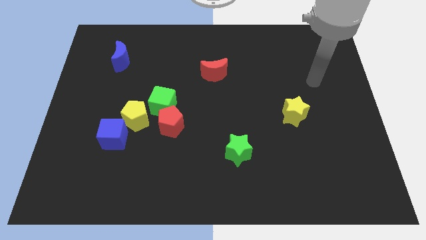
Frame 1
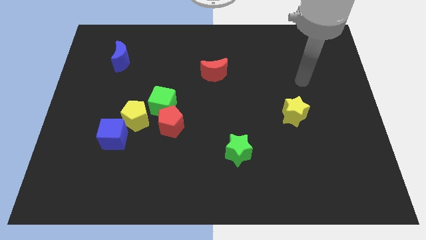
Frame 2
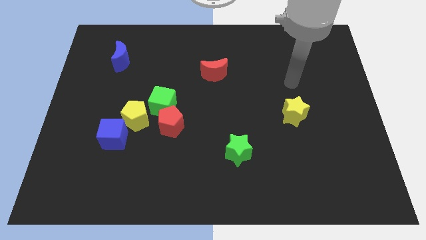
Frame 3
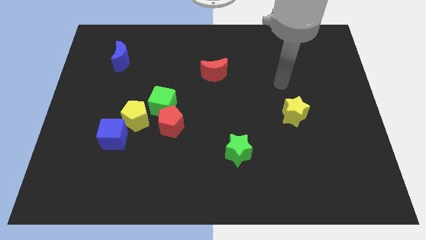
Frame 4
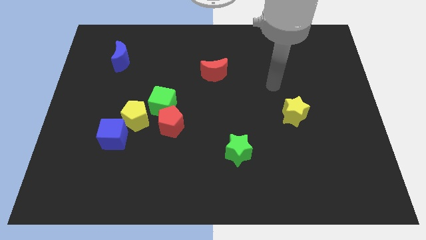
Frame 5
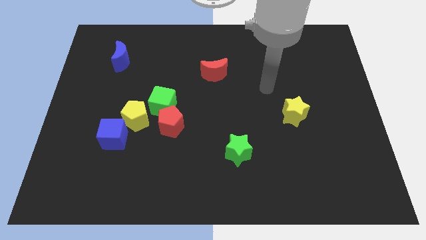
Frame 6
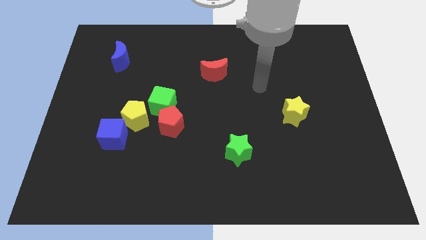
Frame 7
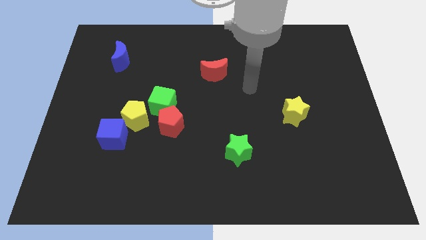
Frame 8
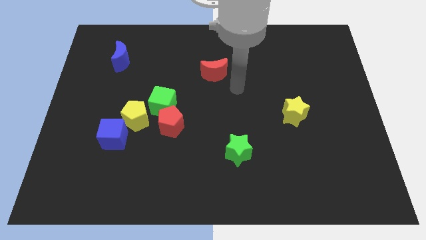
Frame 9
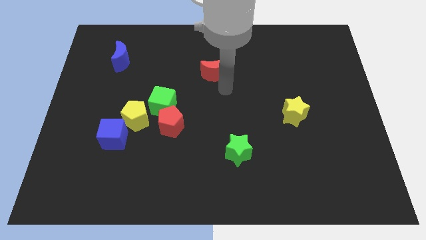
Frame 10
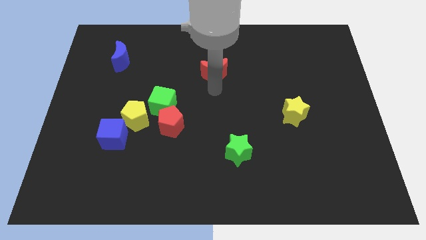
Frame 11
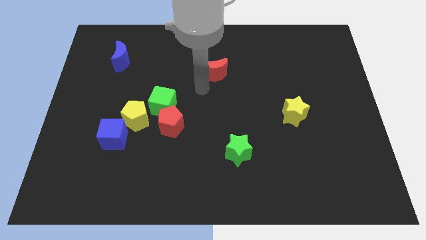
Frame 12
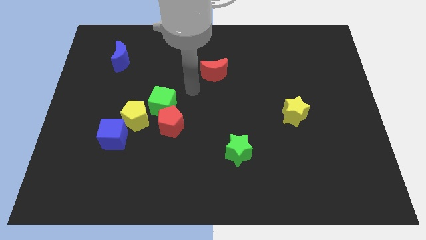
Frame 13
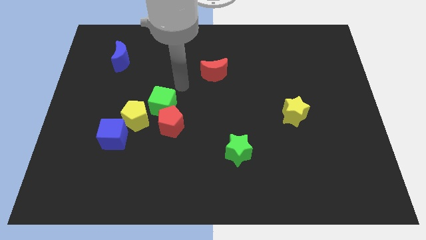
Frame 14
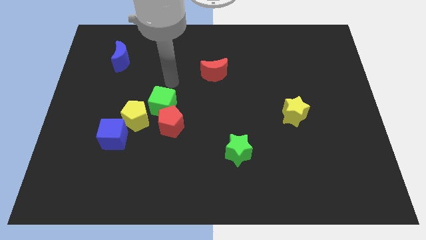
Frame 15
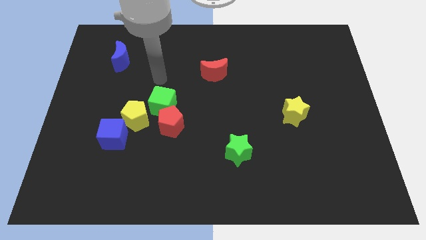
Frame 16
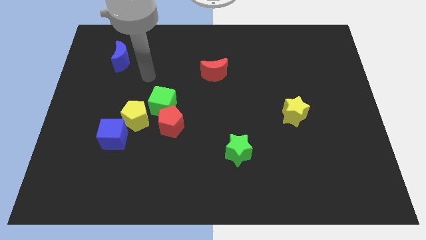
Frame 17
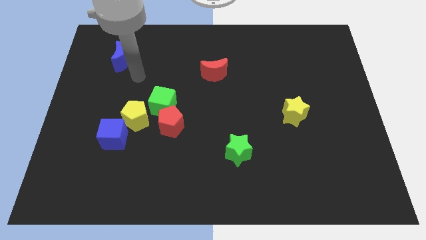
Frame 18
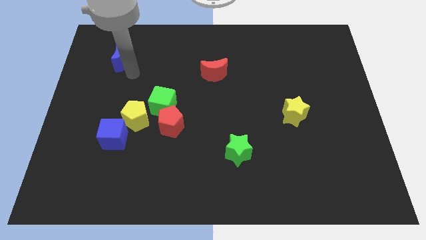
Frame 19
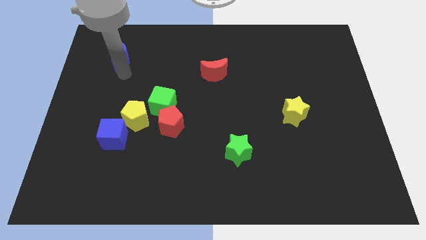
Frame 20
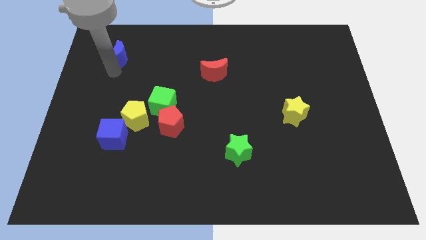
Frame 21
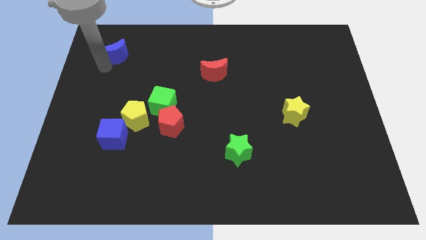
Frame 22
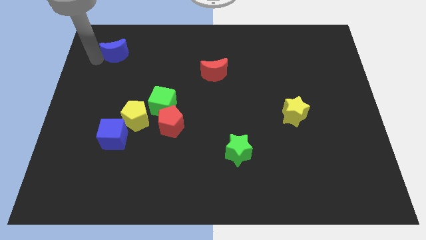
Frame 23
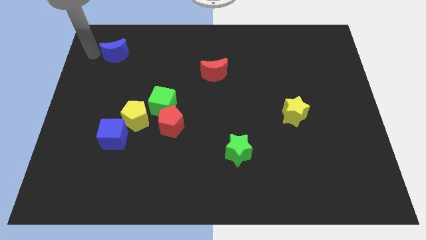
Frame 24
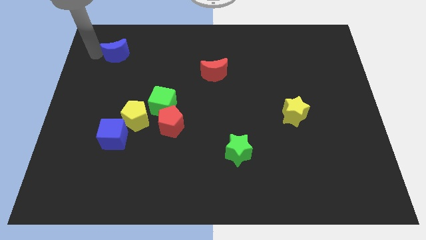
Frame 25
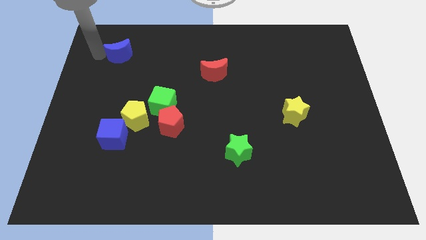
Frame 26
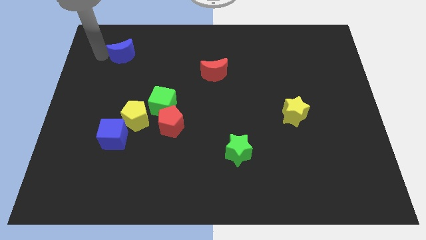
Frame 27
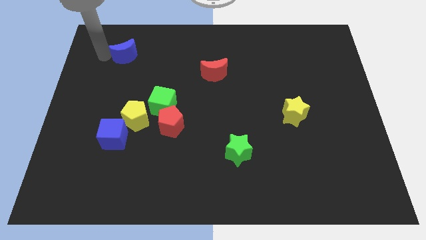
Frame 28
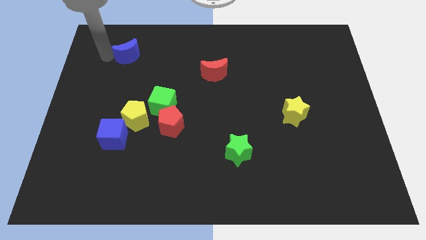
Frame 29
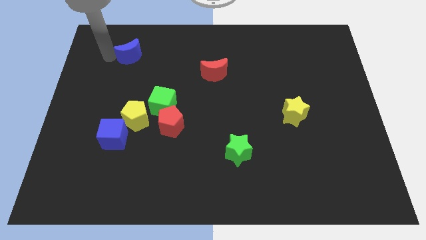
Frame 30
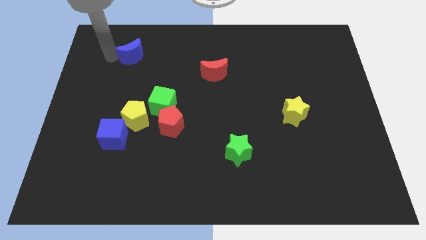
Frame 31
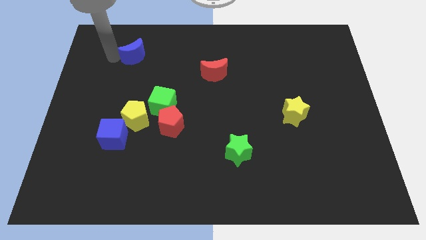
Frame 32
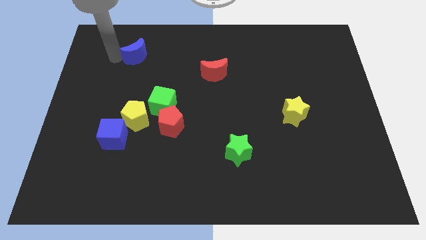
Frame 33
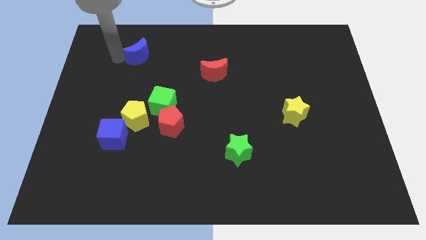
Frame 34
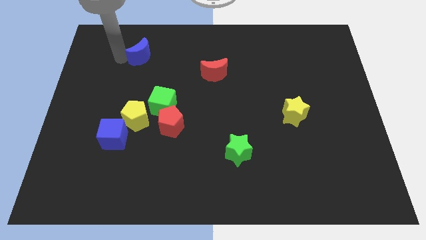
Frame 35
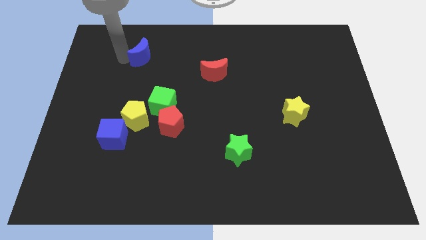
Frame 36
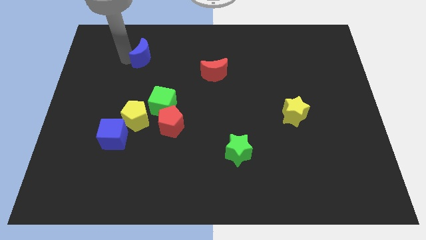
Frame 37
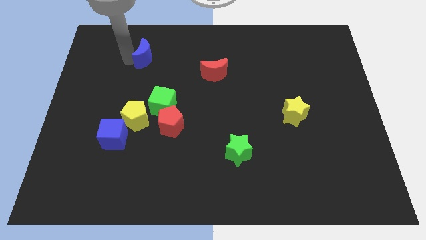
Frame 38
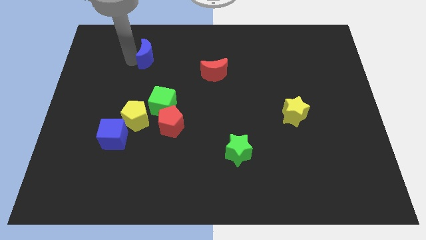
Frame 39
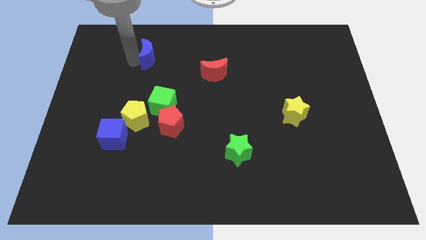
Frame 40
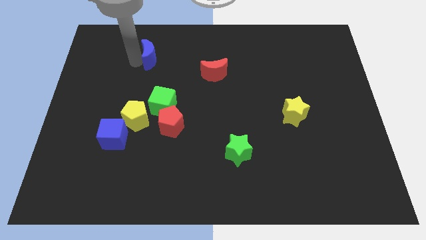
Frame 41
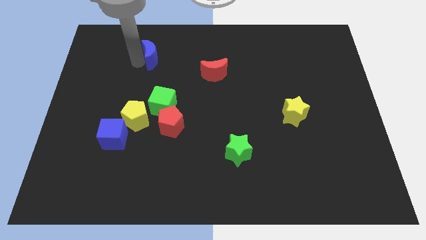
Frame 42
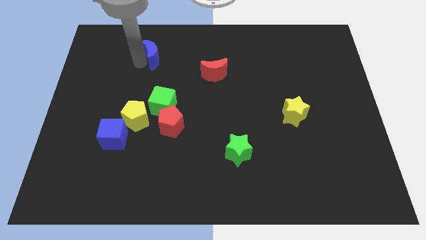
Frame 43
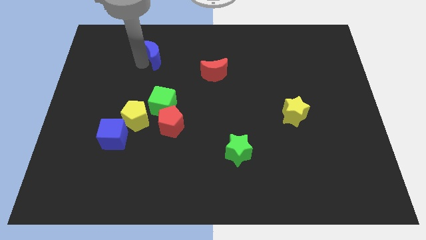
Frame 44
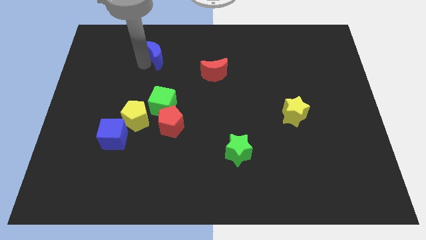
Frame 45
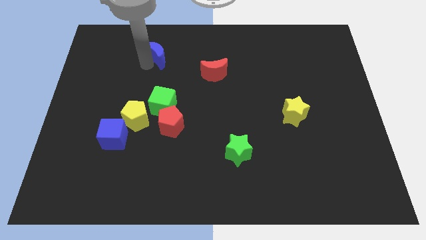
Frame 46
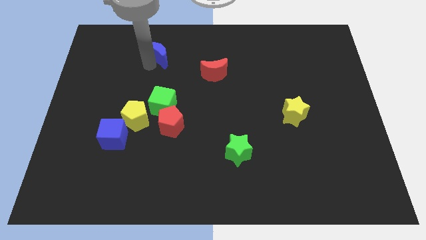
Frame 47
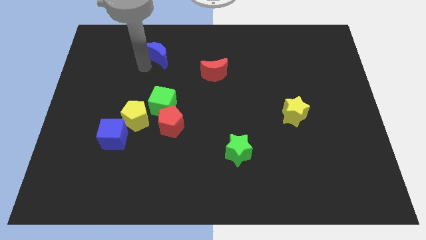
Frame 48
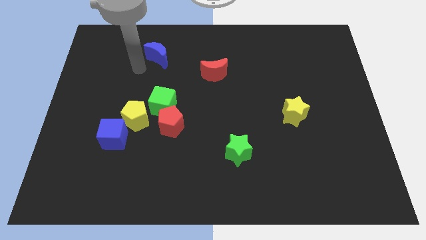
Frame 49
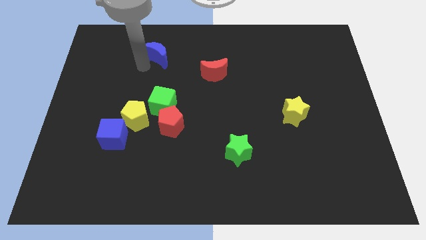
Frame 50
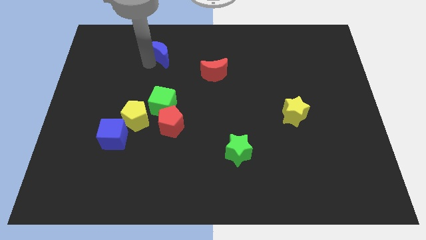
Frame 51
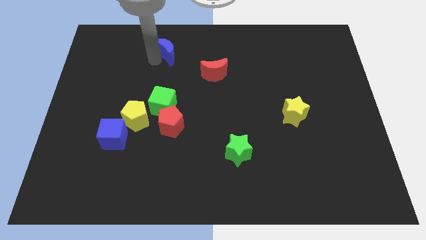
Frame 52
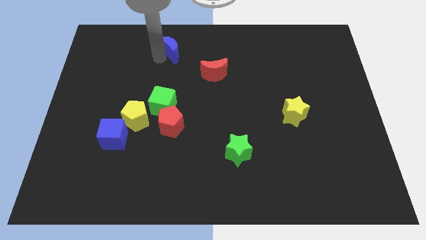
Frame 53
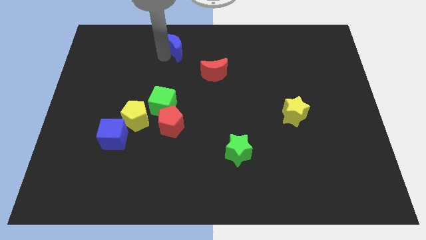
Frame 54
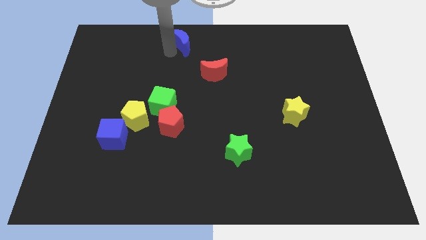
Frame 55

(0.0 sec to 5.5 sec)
put the blue moon to the towards your base

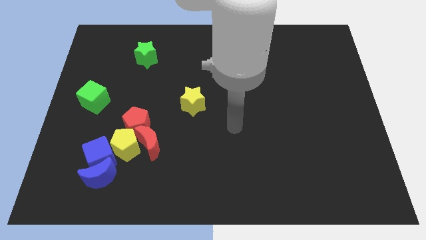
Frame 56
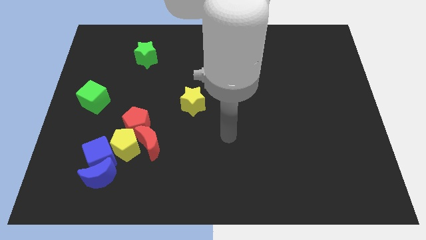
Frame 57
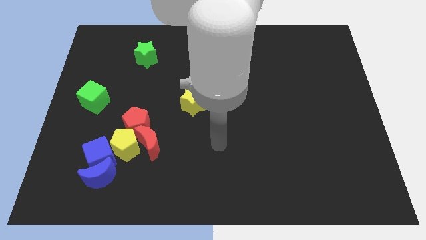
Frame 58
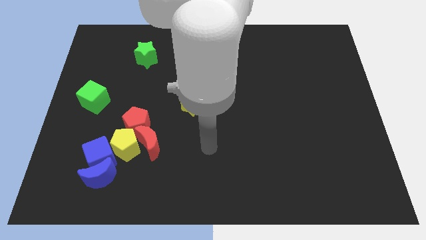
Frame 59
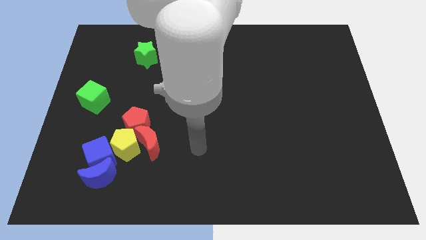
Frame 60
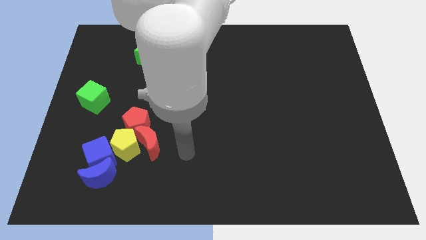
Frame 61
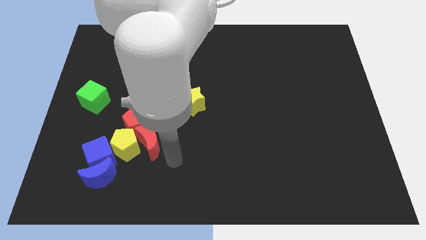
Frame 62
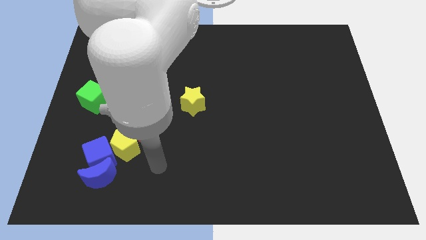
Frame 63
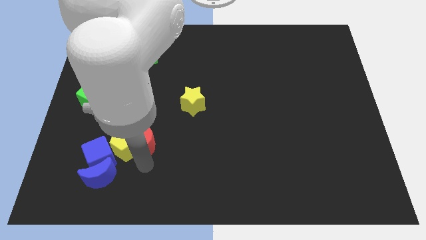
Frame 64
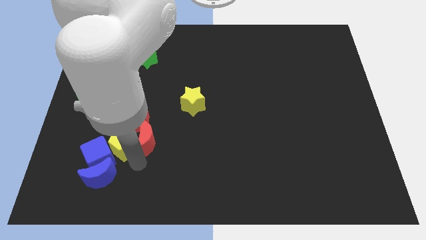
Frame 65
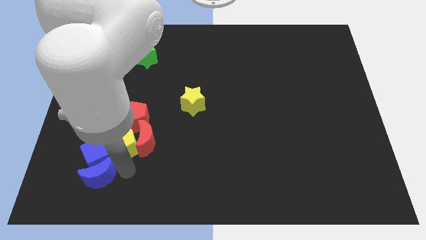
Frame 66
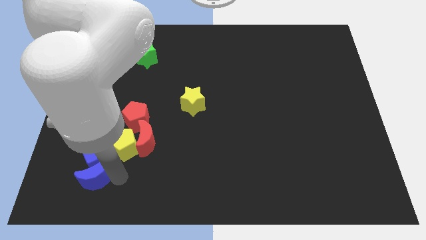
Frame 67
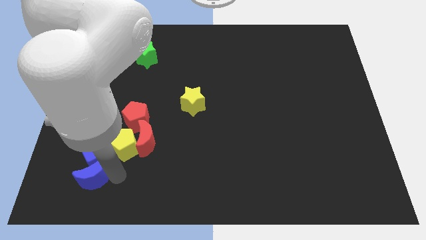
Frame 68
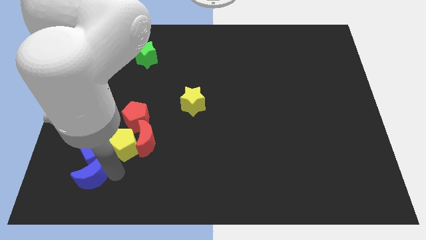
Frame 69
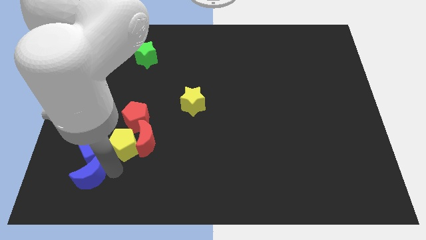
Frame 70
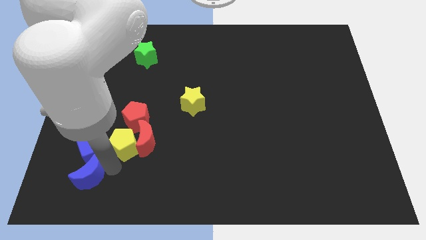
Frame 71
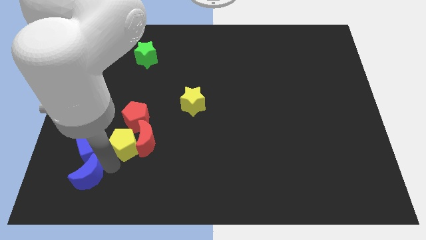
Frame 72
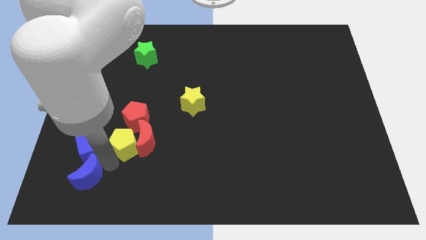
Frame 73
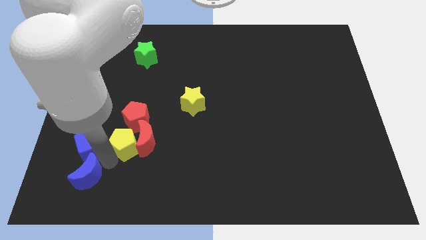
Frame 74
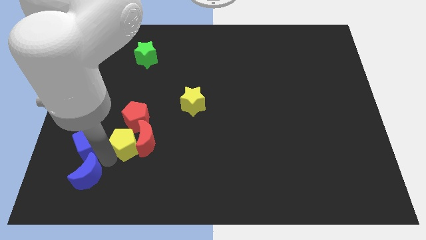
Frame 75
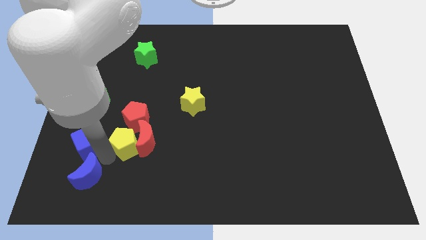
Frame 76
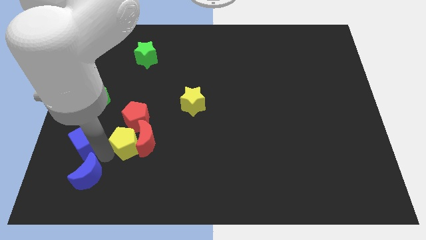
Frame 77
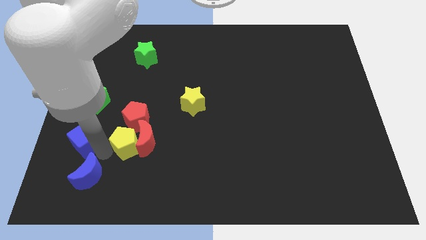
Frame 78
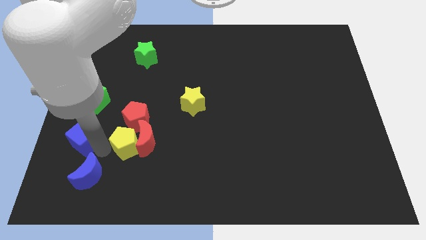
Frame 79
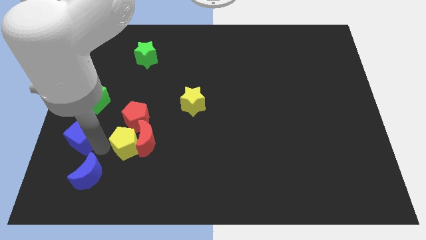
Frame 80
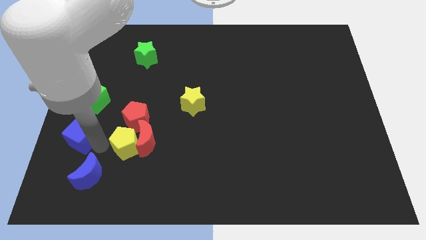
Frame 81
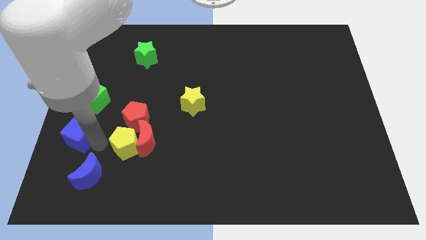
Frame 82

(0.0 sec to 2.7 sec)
move the blue cube to the center left

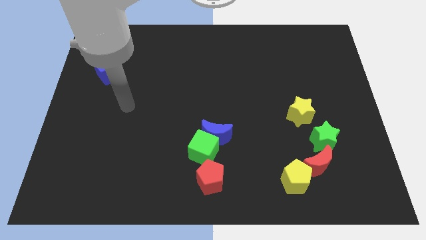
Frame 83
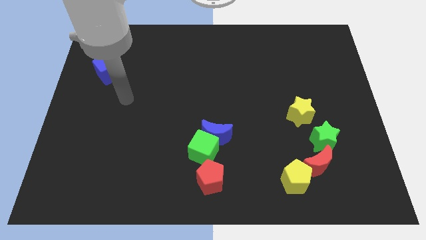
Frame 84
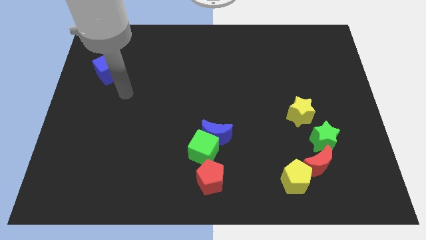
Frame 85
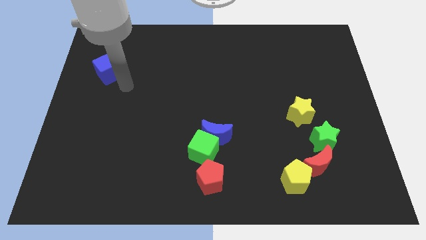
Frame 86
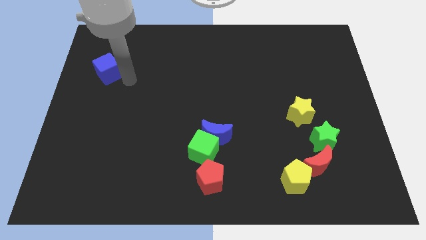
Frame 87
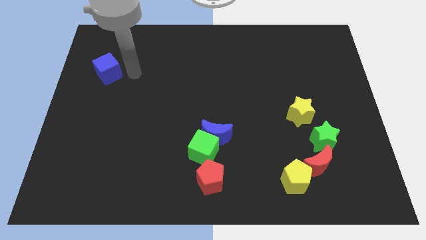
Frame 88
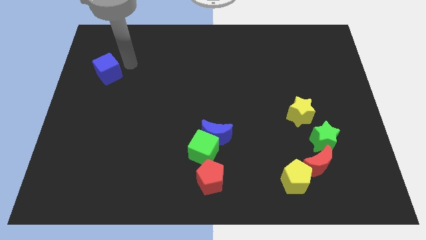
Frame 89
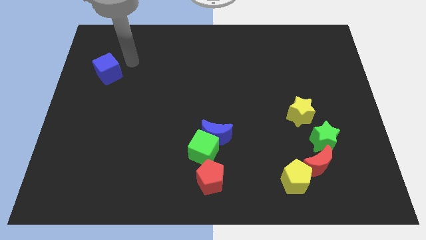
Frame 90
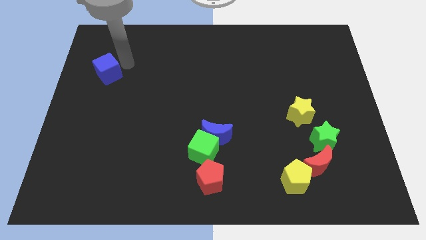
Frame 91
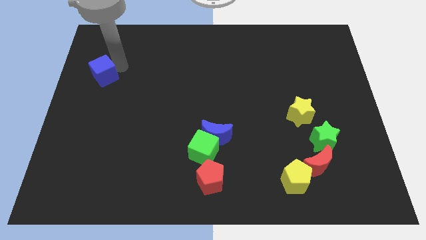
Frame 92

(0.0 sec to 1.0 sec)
put the blue cube to the left side of the board
